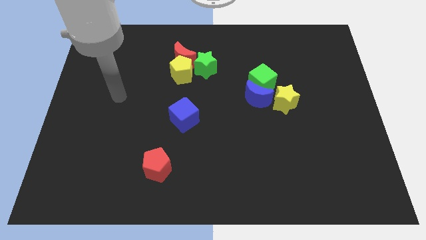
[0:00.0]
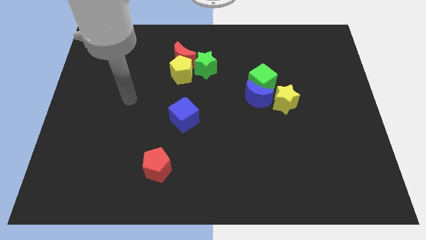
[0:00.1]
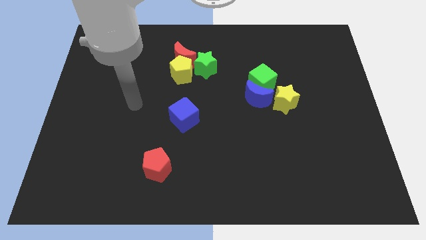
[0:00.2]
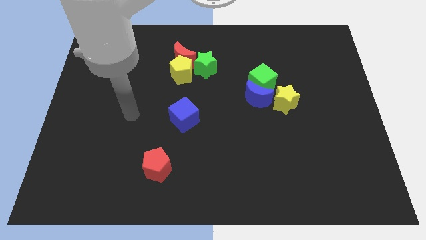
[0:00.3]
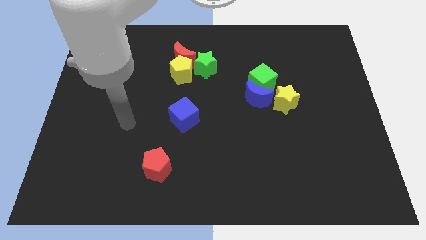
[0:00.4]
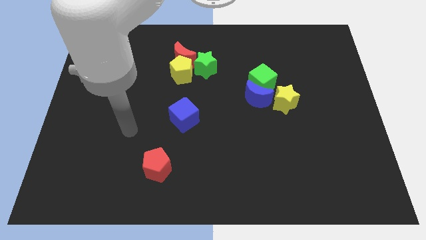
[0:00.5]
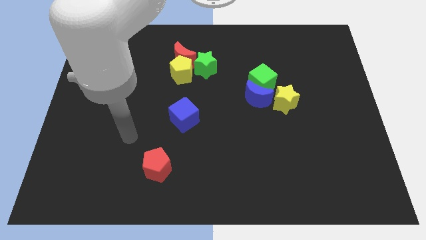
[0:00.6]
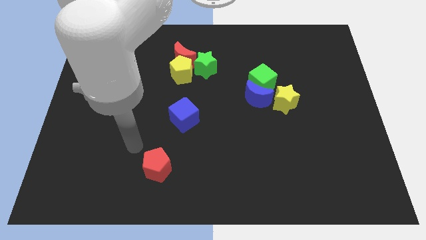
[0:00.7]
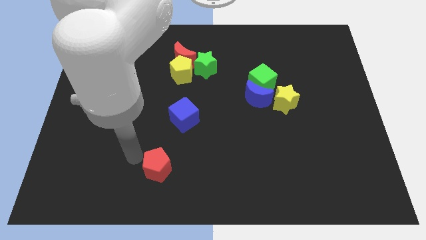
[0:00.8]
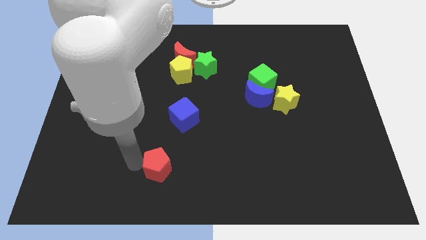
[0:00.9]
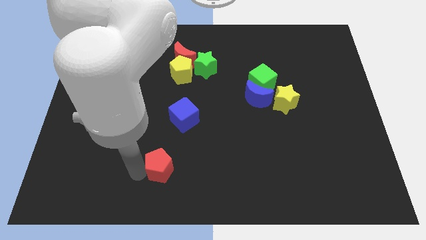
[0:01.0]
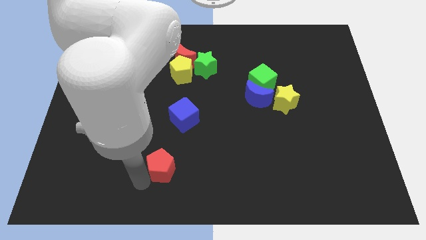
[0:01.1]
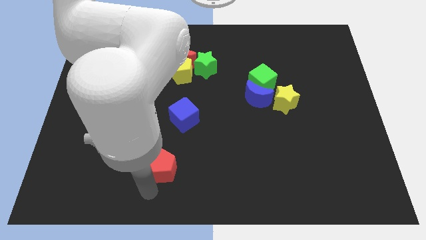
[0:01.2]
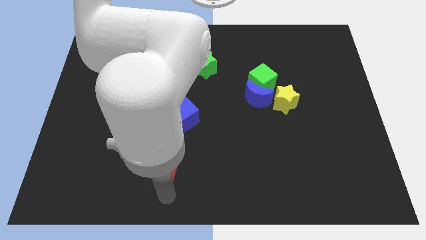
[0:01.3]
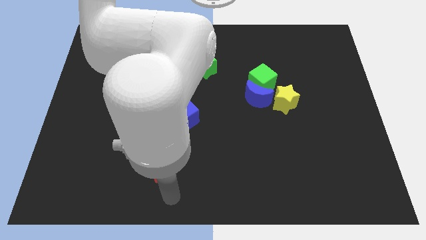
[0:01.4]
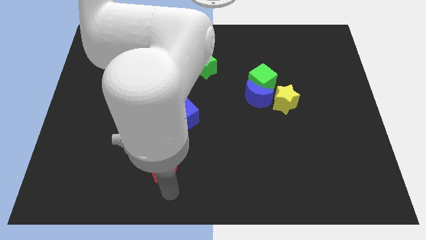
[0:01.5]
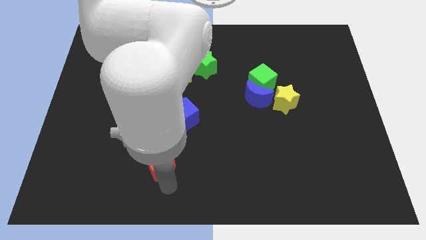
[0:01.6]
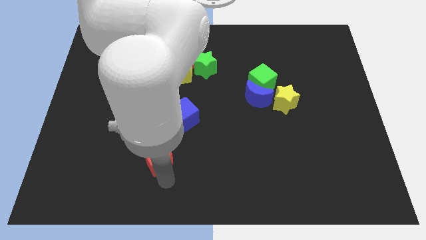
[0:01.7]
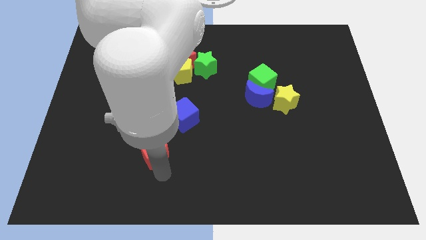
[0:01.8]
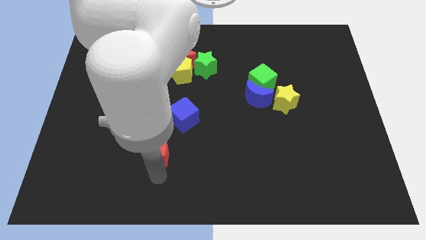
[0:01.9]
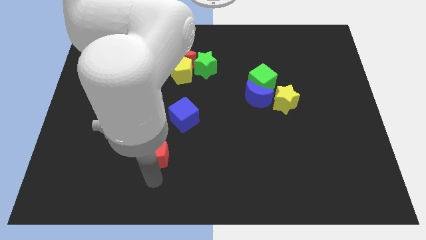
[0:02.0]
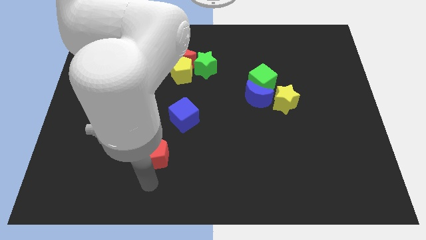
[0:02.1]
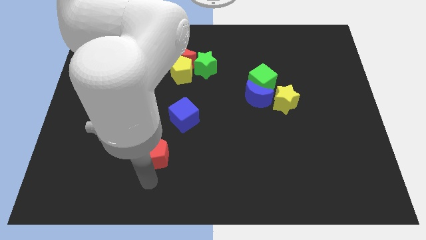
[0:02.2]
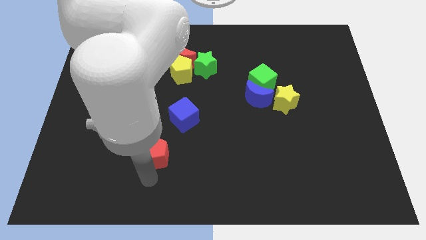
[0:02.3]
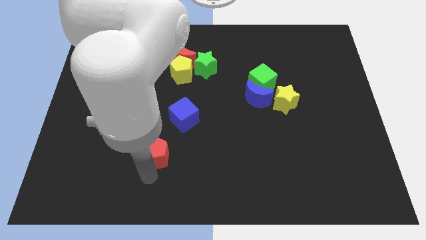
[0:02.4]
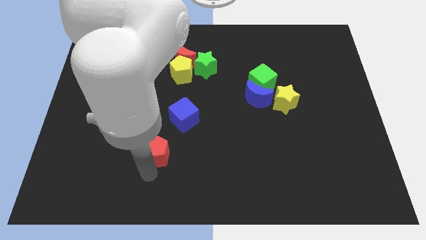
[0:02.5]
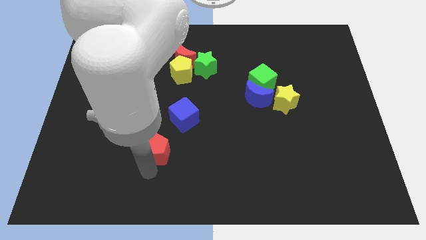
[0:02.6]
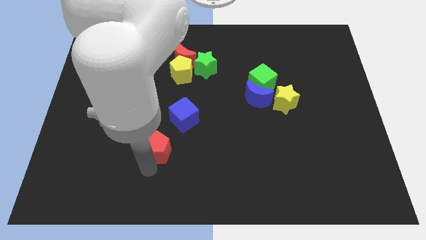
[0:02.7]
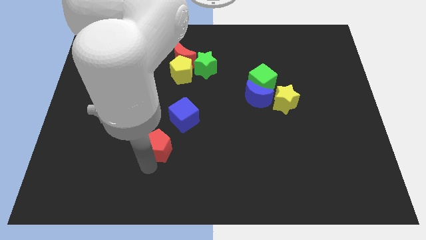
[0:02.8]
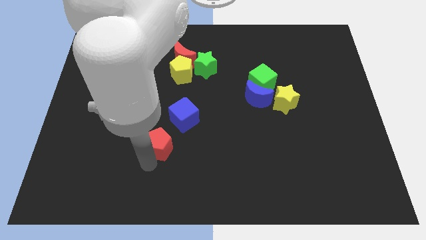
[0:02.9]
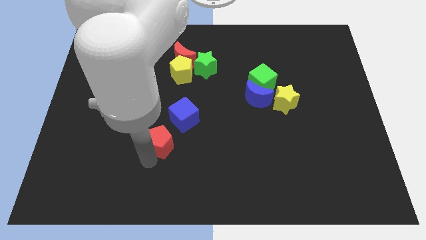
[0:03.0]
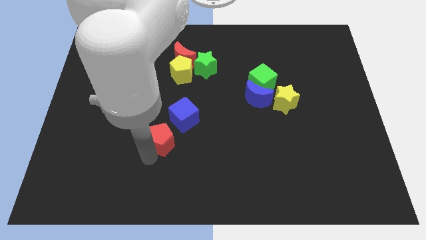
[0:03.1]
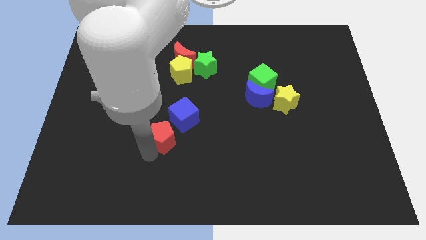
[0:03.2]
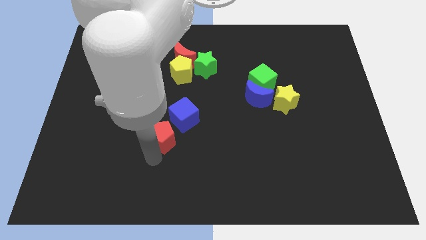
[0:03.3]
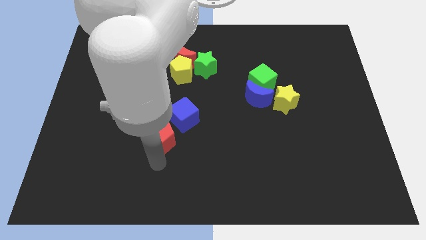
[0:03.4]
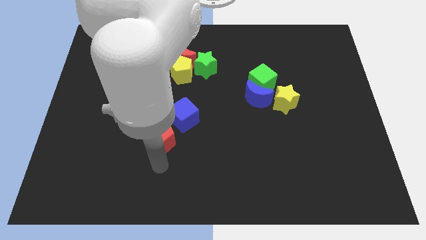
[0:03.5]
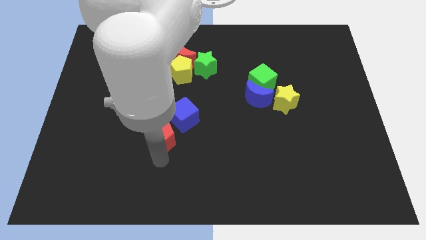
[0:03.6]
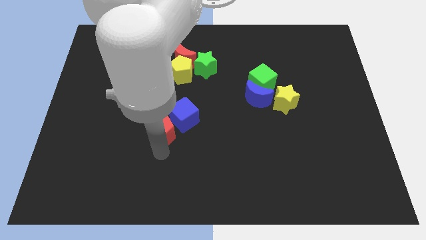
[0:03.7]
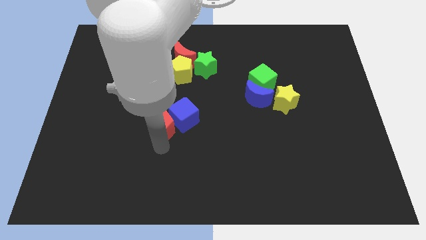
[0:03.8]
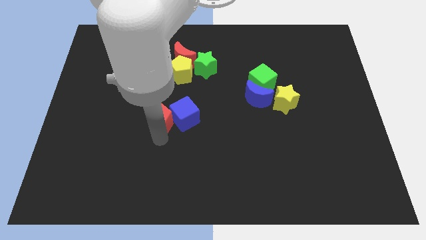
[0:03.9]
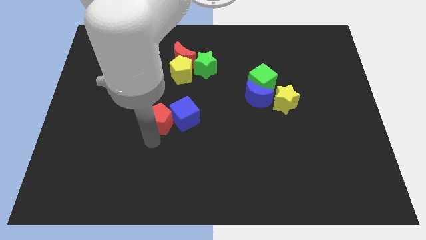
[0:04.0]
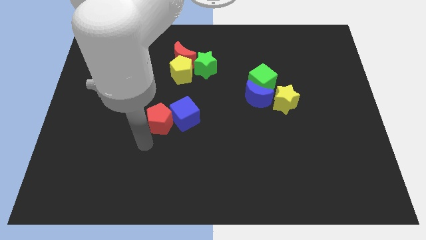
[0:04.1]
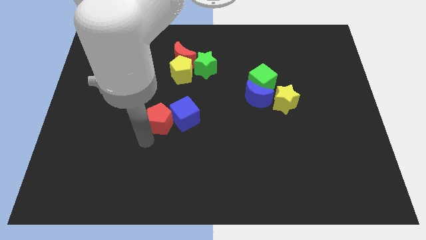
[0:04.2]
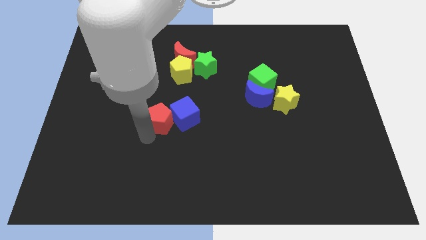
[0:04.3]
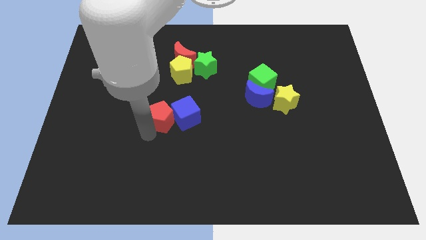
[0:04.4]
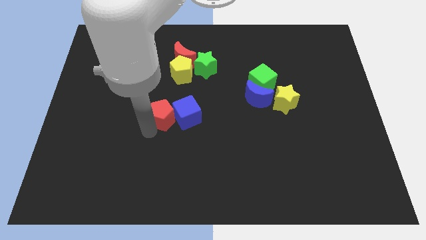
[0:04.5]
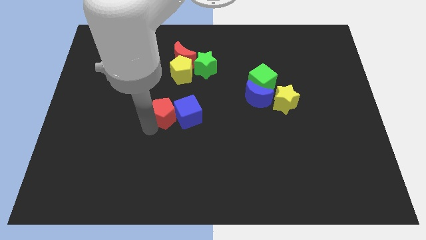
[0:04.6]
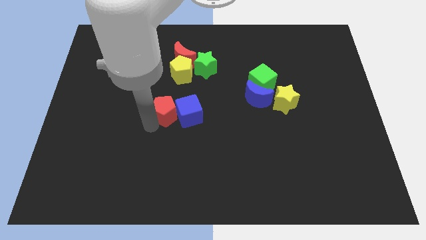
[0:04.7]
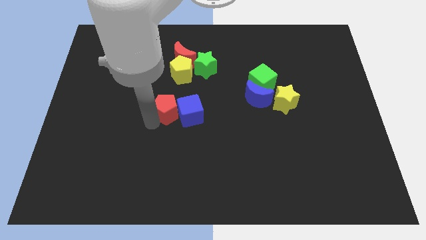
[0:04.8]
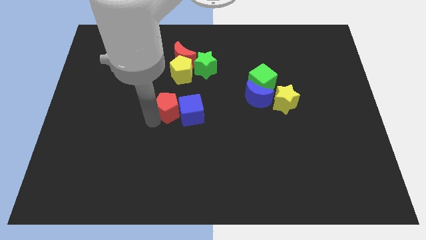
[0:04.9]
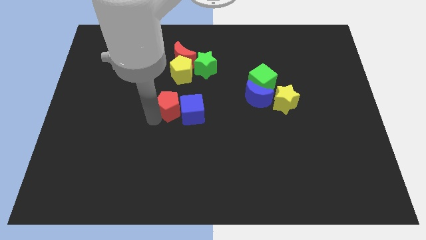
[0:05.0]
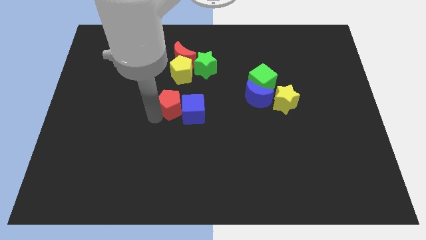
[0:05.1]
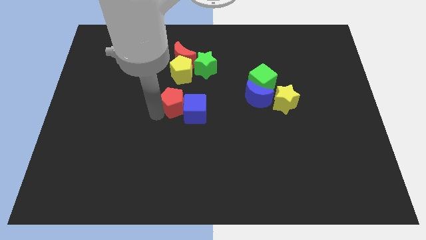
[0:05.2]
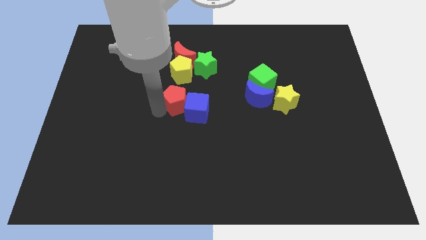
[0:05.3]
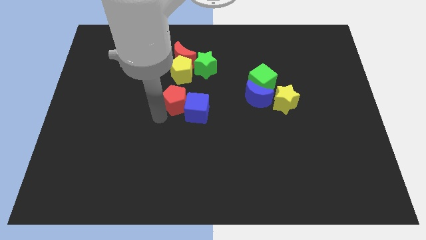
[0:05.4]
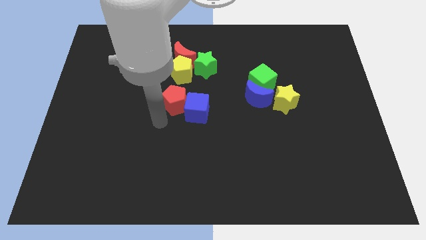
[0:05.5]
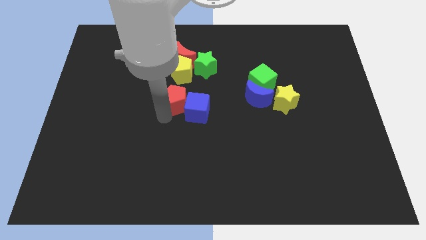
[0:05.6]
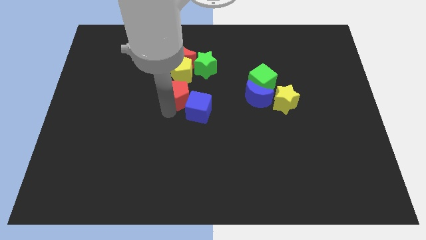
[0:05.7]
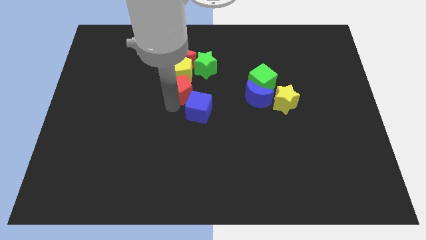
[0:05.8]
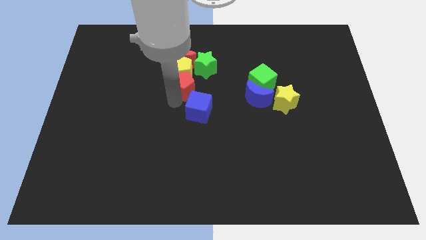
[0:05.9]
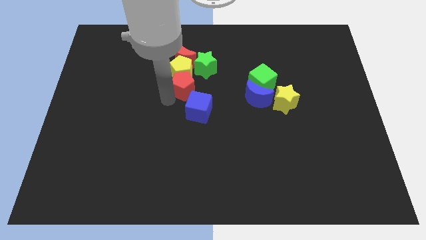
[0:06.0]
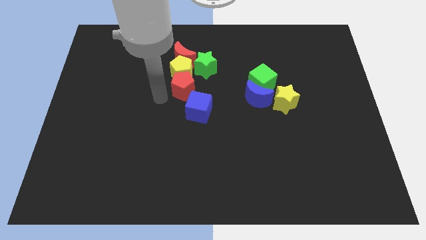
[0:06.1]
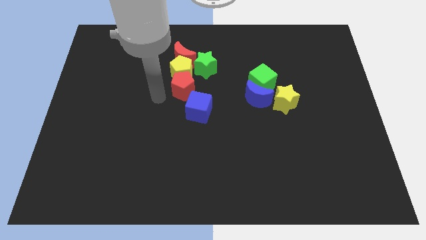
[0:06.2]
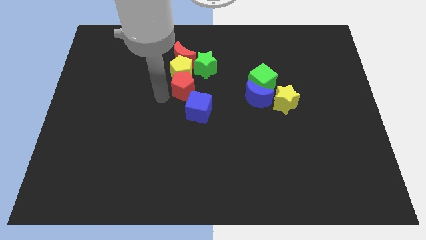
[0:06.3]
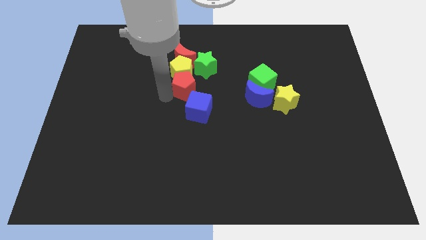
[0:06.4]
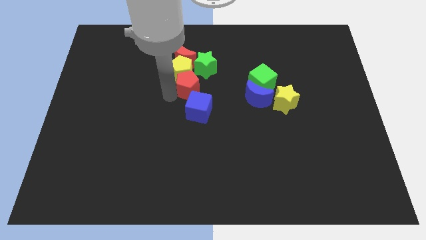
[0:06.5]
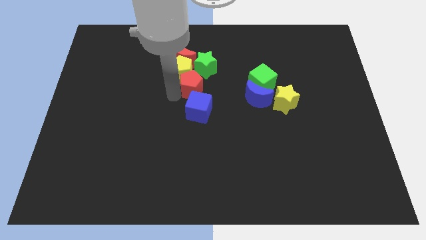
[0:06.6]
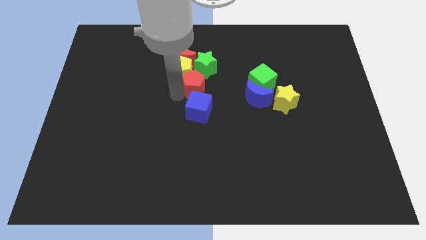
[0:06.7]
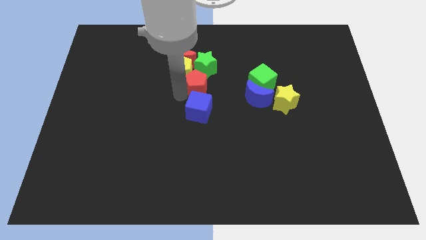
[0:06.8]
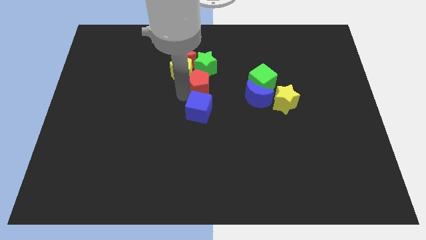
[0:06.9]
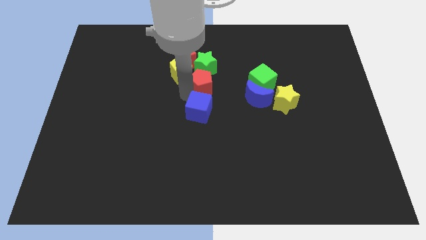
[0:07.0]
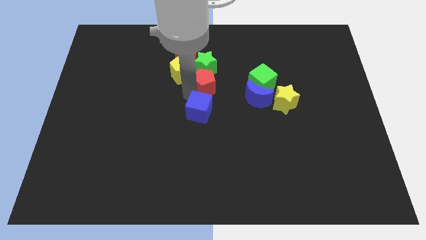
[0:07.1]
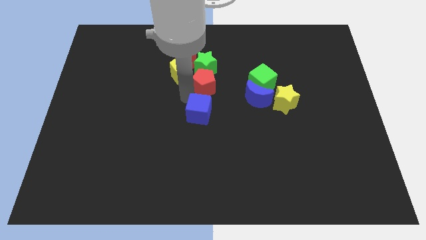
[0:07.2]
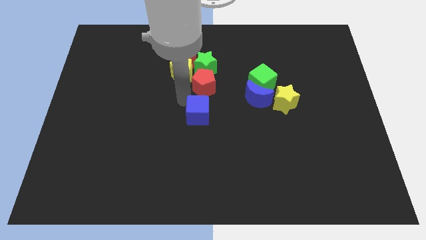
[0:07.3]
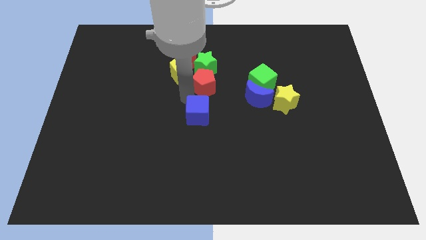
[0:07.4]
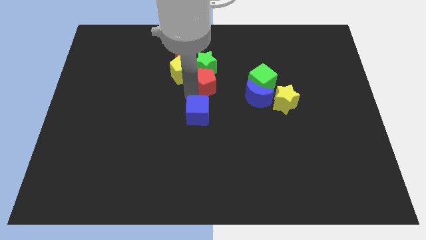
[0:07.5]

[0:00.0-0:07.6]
push the red pentagon towards the green star
